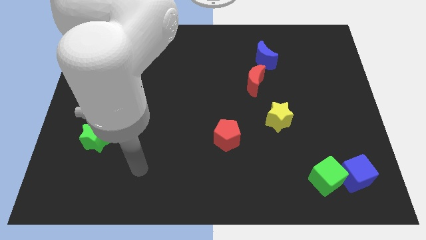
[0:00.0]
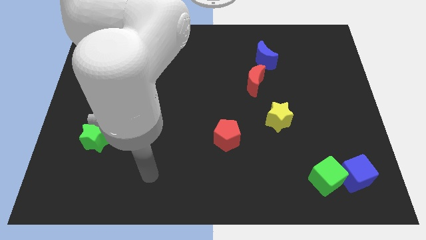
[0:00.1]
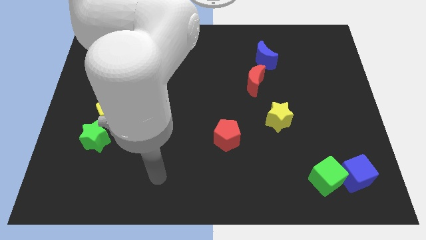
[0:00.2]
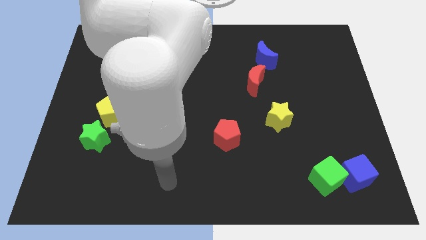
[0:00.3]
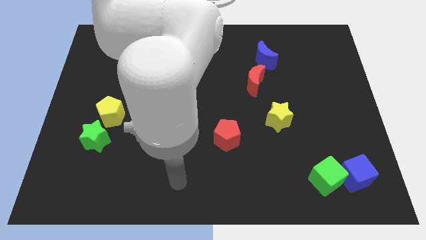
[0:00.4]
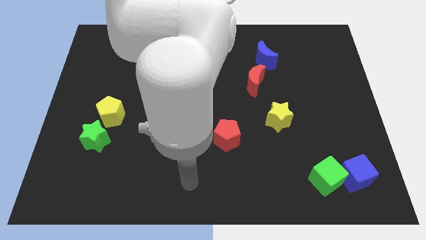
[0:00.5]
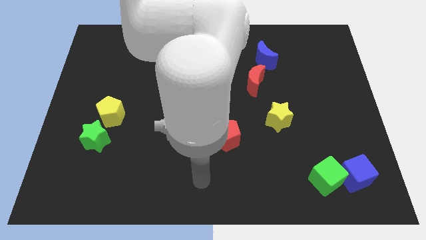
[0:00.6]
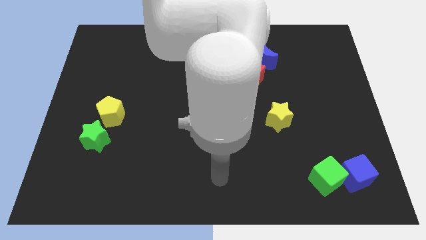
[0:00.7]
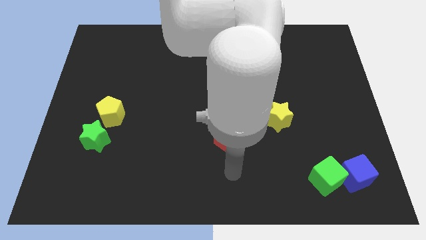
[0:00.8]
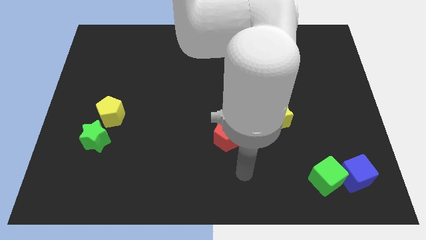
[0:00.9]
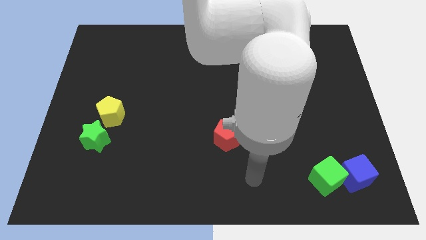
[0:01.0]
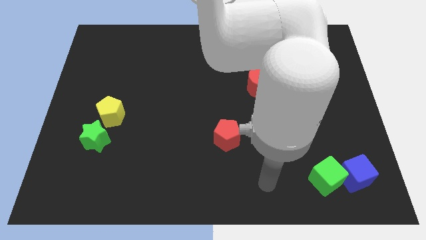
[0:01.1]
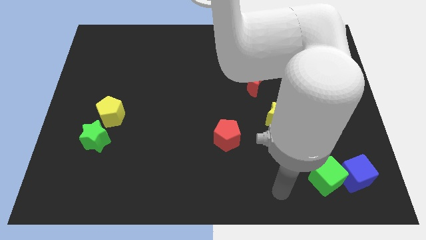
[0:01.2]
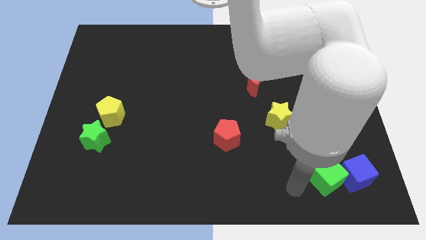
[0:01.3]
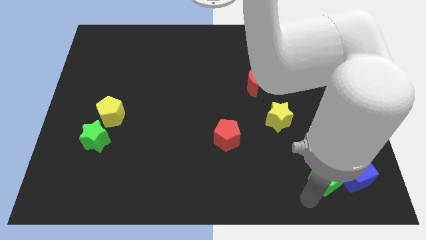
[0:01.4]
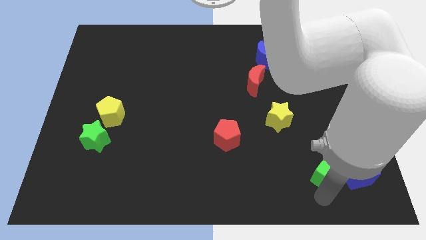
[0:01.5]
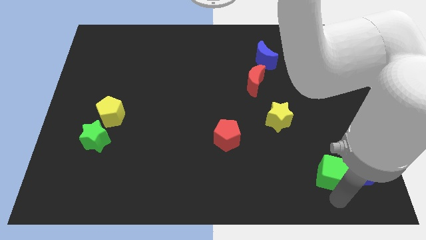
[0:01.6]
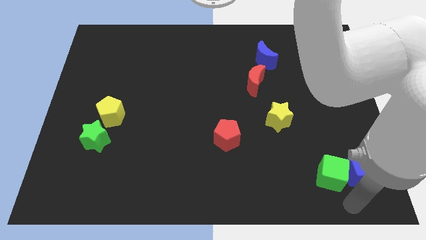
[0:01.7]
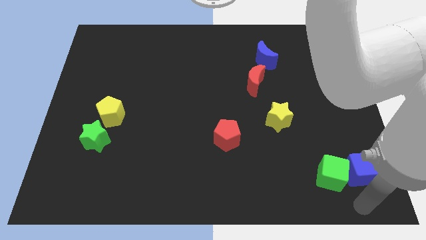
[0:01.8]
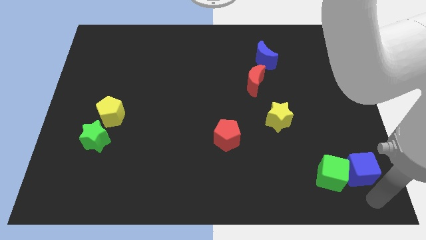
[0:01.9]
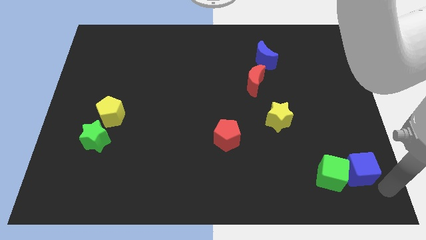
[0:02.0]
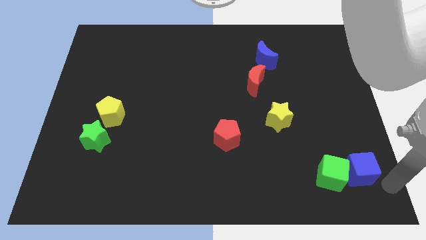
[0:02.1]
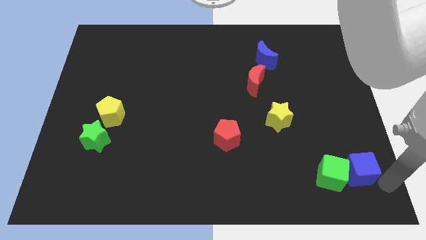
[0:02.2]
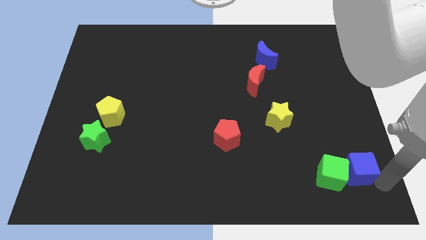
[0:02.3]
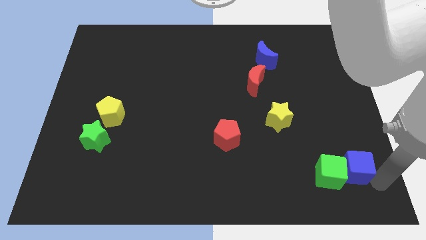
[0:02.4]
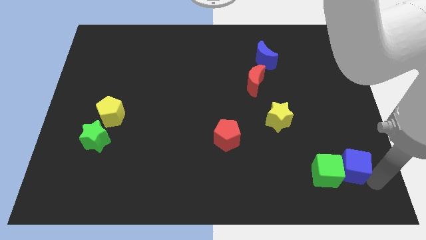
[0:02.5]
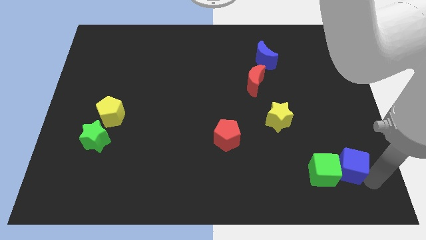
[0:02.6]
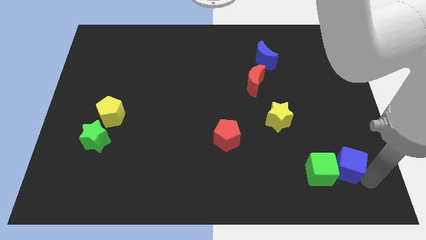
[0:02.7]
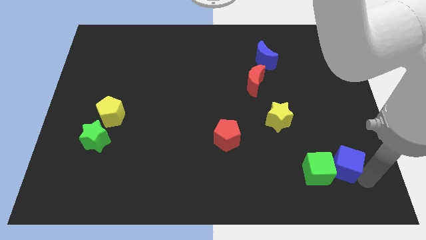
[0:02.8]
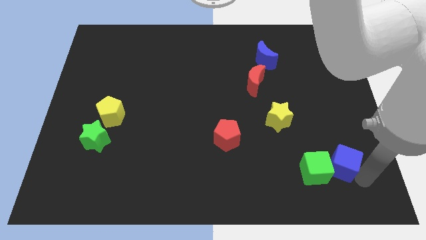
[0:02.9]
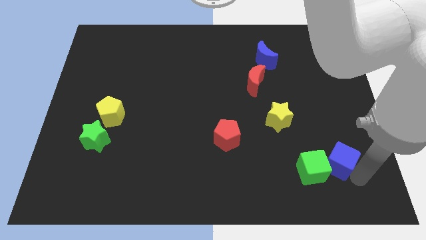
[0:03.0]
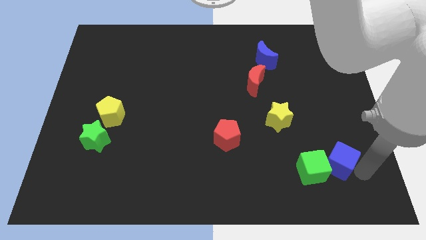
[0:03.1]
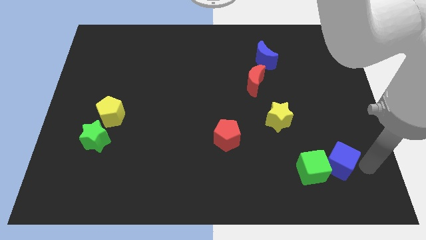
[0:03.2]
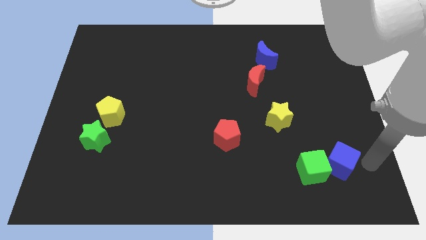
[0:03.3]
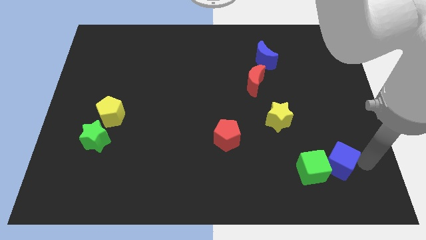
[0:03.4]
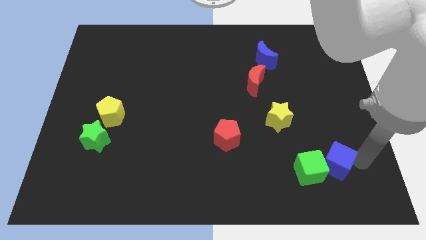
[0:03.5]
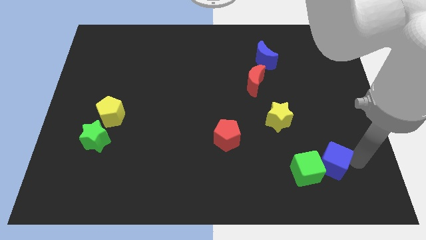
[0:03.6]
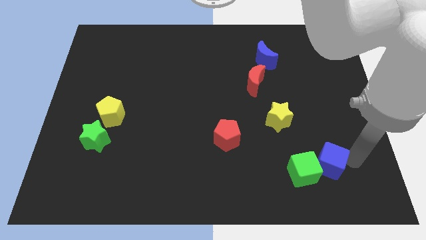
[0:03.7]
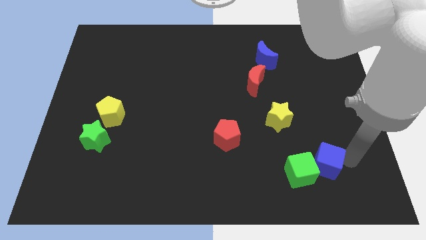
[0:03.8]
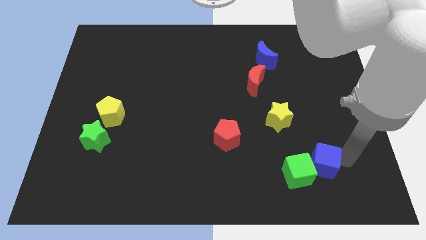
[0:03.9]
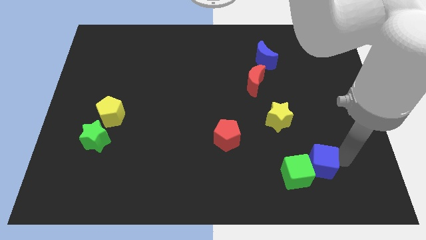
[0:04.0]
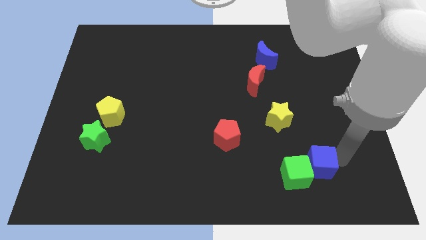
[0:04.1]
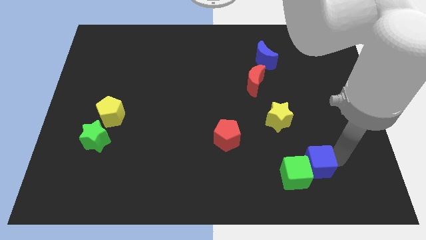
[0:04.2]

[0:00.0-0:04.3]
slightly push the blue cube left

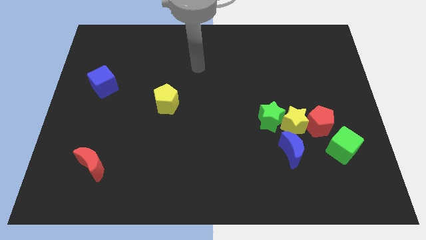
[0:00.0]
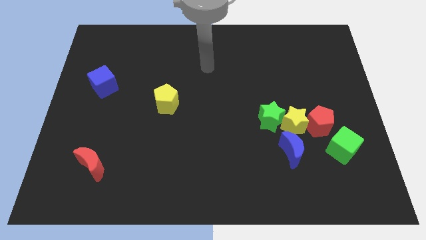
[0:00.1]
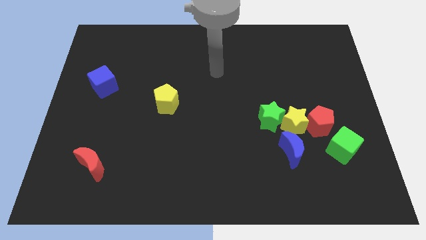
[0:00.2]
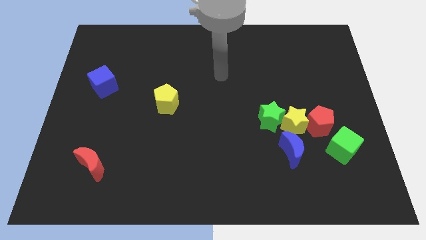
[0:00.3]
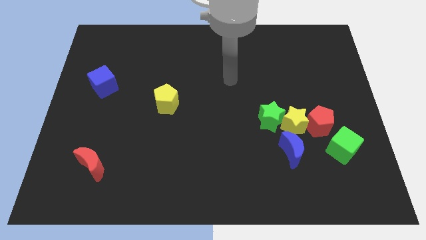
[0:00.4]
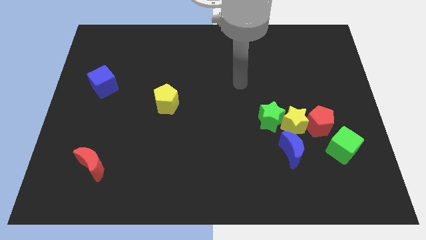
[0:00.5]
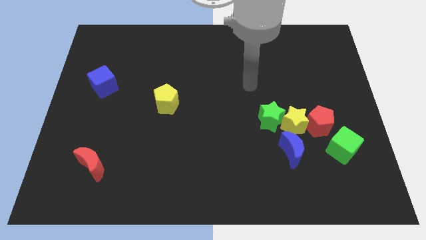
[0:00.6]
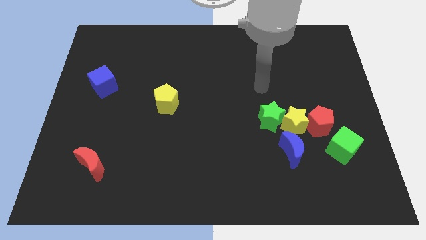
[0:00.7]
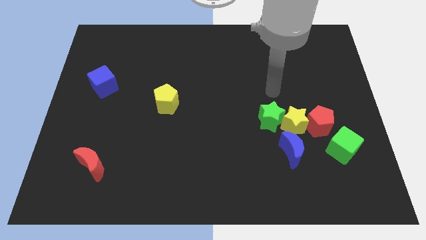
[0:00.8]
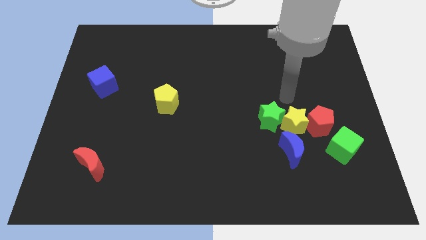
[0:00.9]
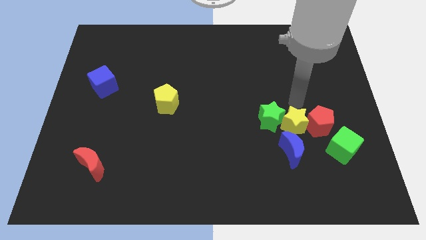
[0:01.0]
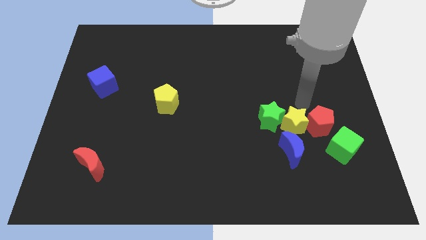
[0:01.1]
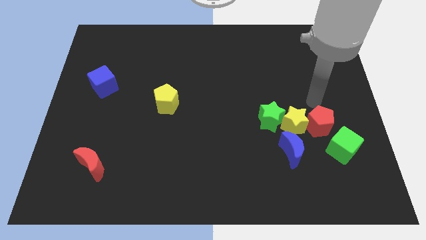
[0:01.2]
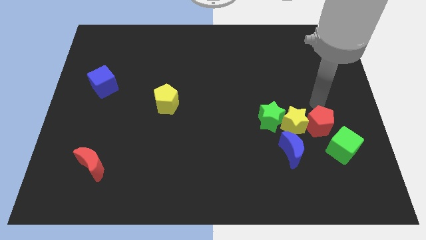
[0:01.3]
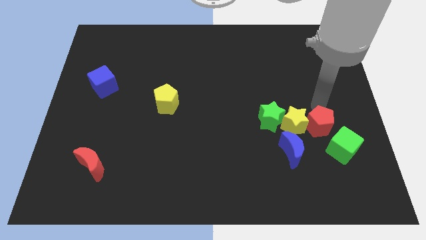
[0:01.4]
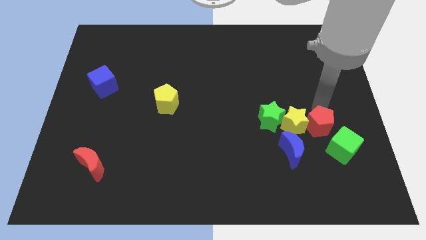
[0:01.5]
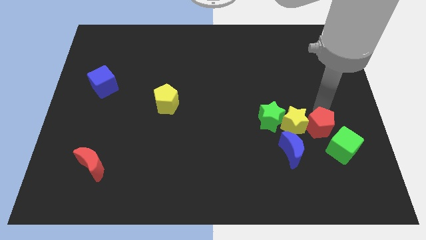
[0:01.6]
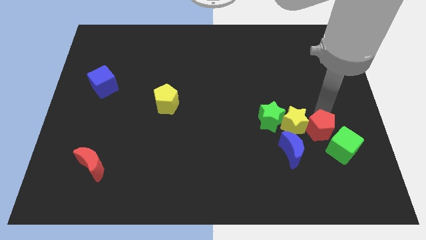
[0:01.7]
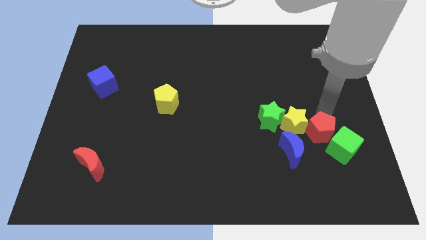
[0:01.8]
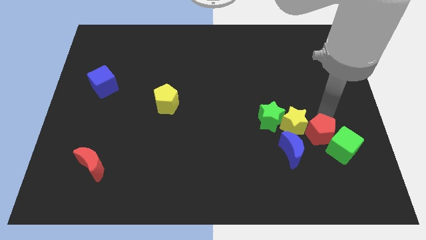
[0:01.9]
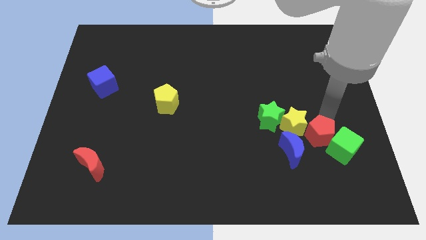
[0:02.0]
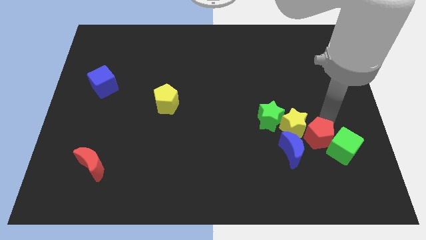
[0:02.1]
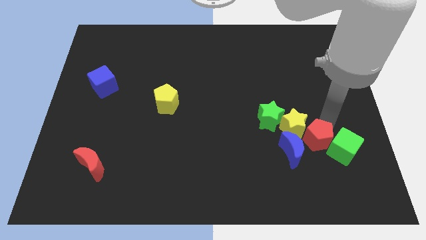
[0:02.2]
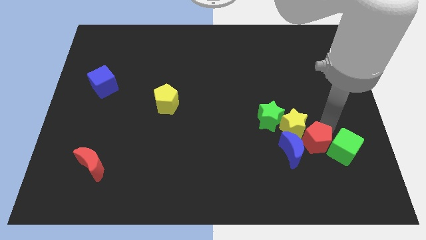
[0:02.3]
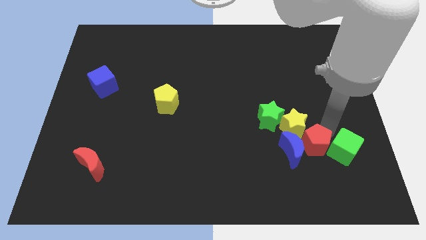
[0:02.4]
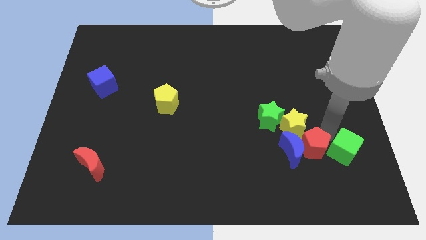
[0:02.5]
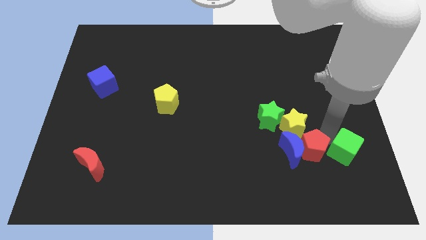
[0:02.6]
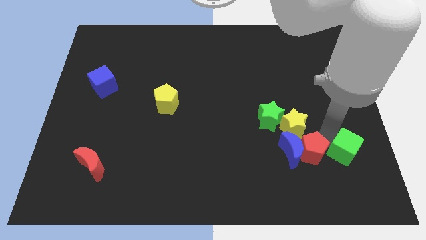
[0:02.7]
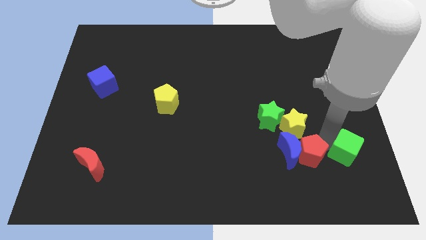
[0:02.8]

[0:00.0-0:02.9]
slightly push the red pentagon downwards and then left

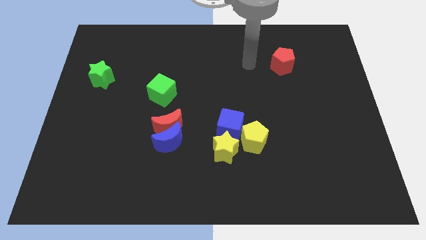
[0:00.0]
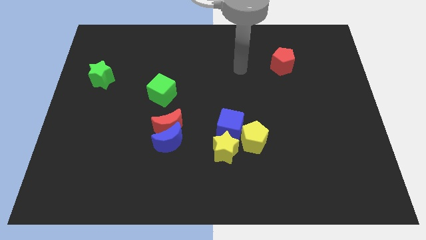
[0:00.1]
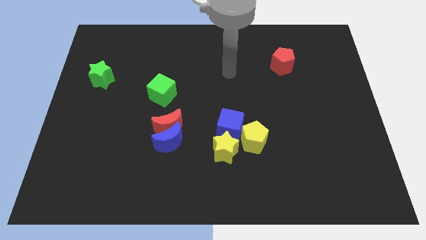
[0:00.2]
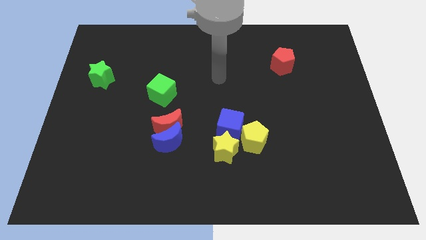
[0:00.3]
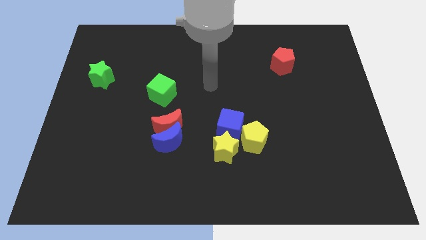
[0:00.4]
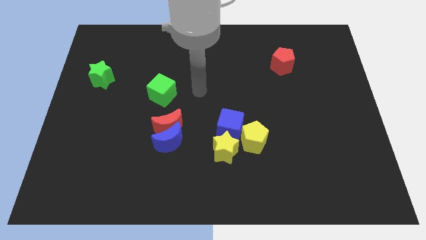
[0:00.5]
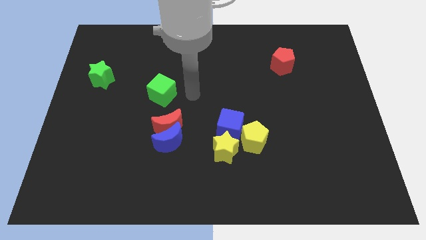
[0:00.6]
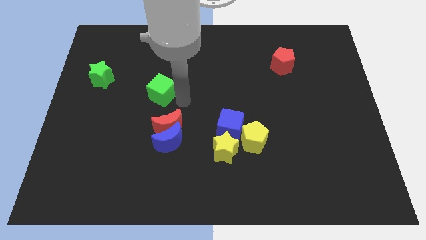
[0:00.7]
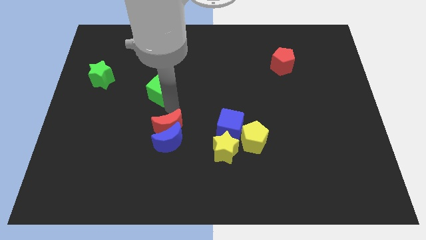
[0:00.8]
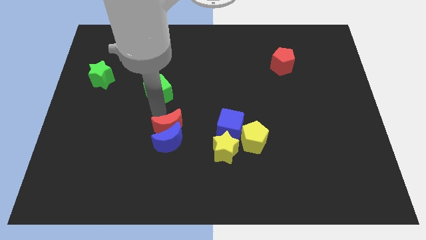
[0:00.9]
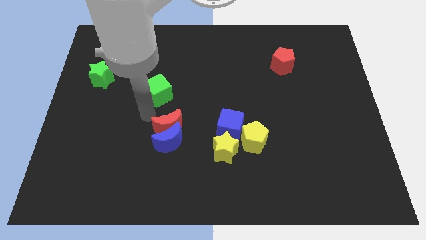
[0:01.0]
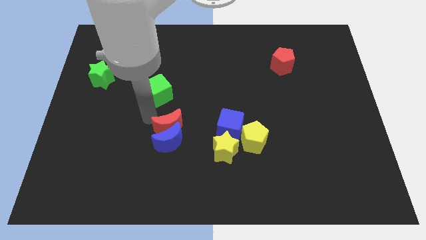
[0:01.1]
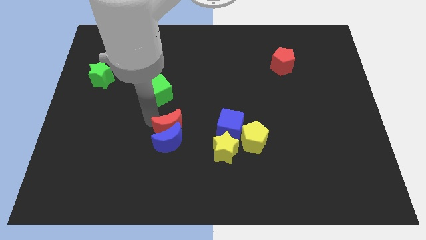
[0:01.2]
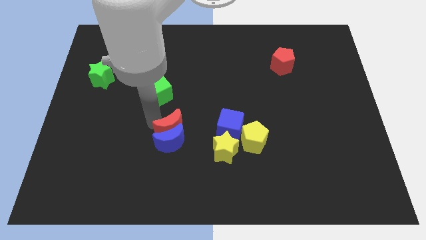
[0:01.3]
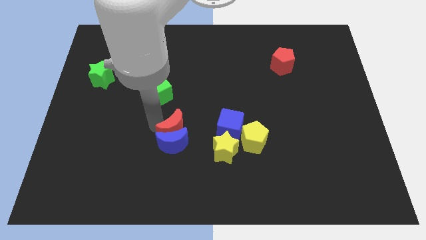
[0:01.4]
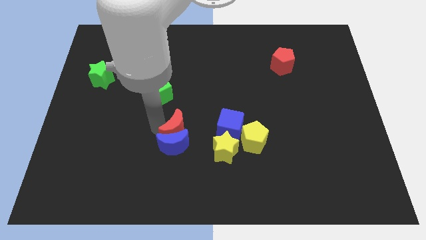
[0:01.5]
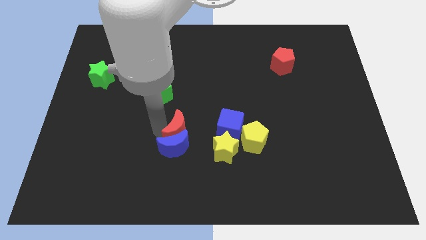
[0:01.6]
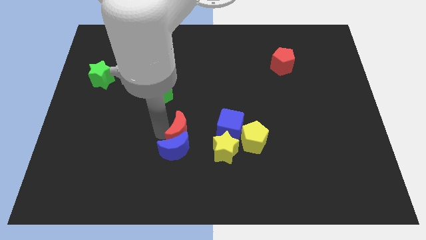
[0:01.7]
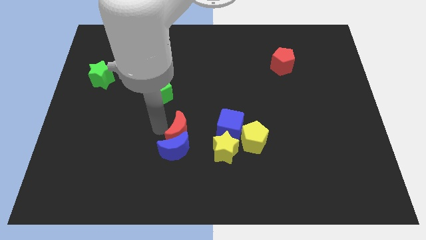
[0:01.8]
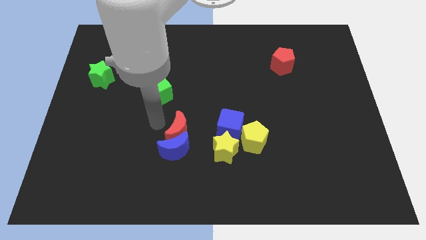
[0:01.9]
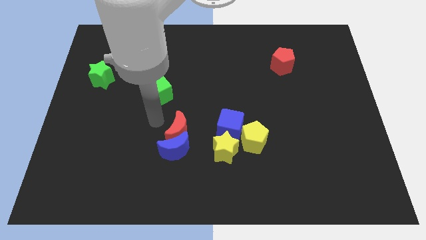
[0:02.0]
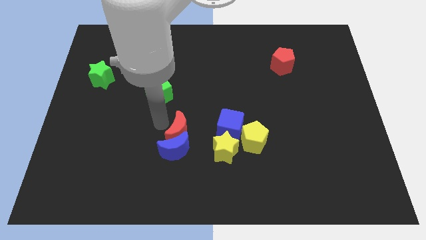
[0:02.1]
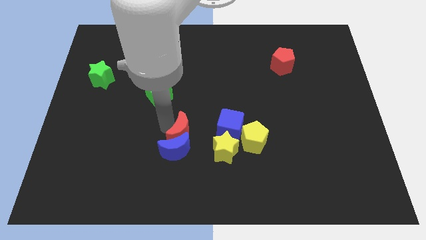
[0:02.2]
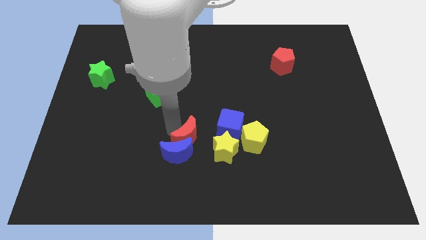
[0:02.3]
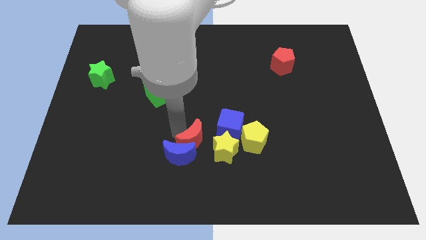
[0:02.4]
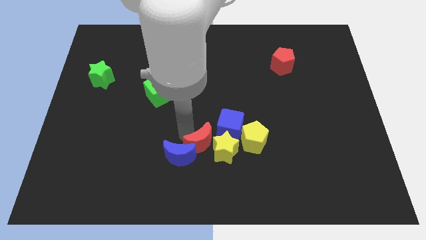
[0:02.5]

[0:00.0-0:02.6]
push the red moon slightly diagonally downwards and right
